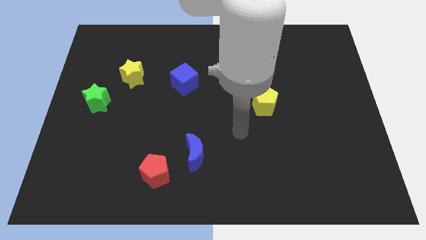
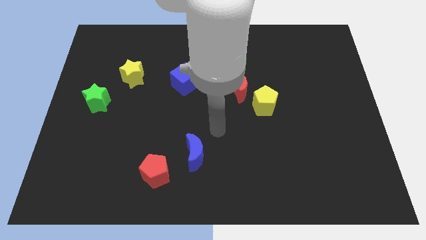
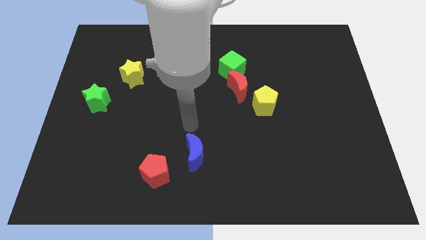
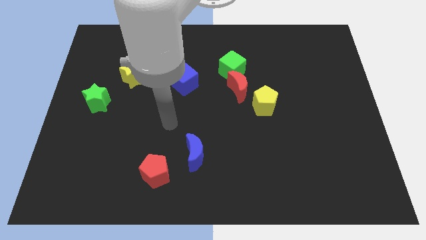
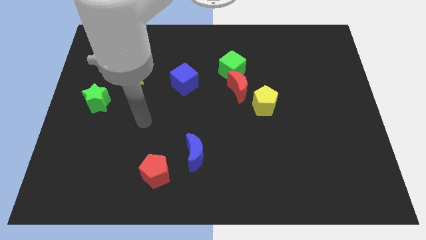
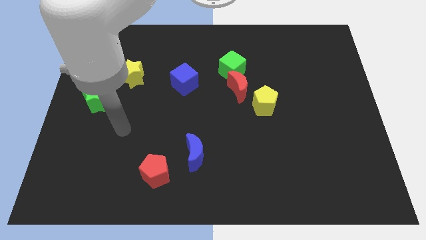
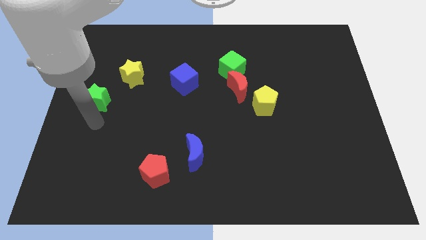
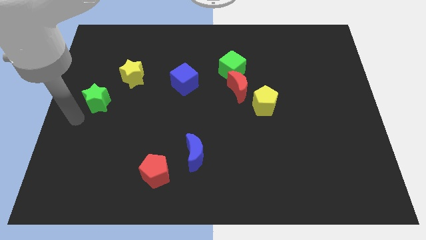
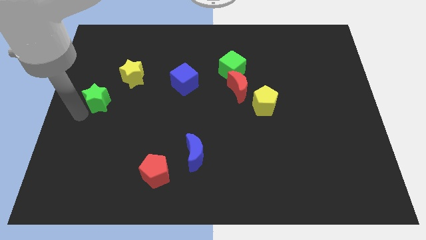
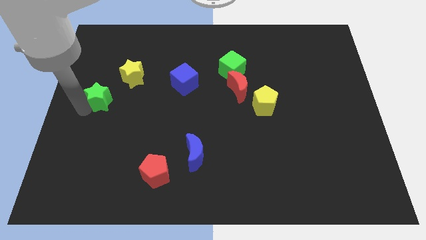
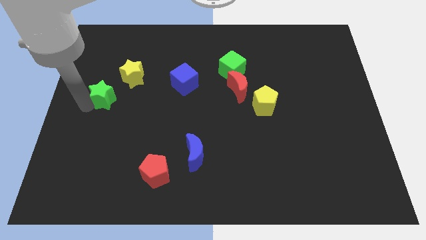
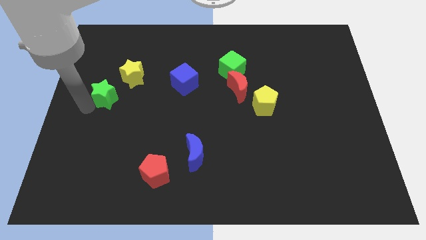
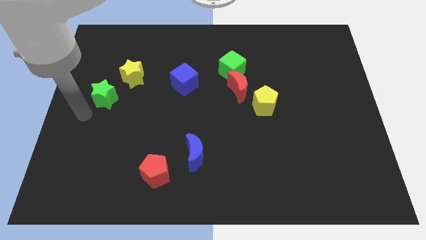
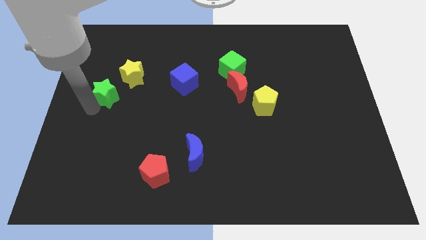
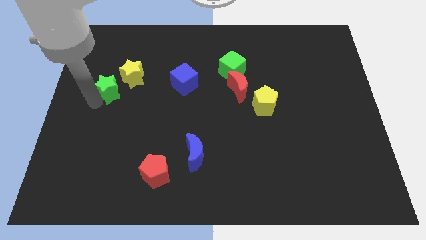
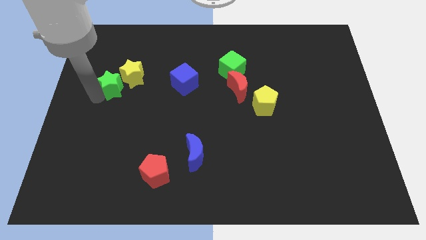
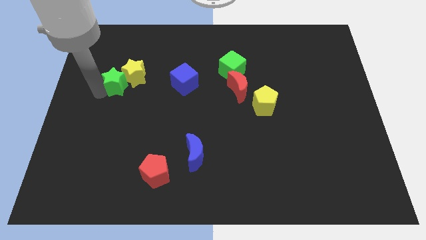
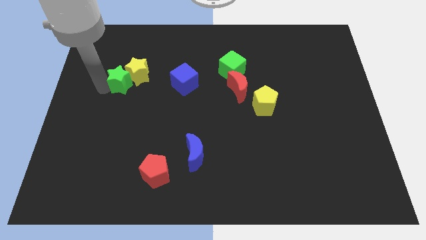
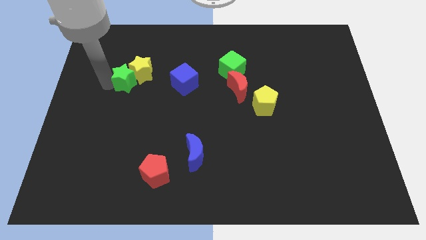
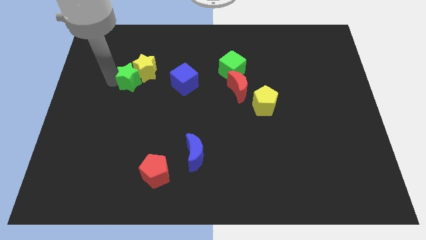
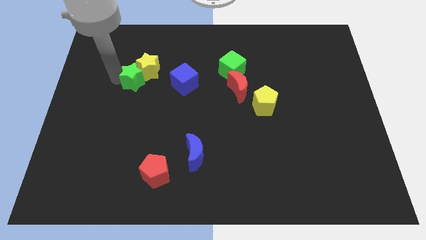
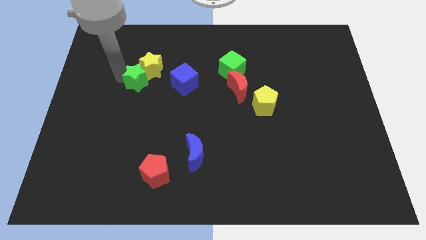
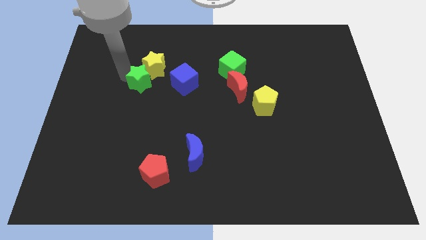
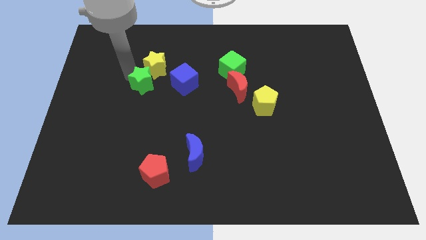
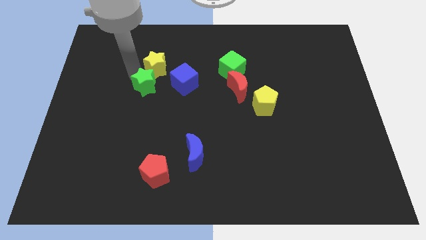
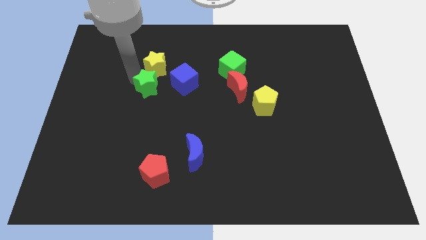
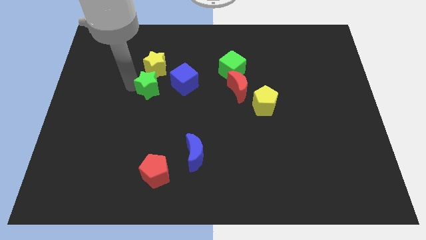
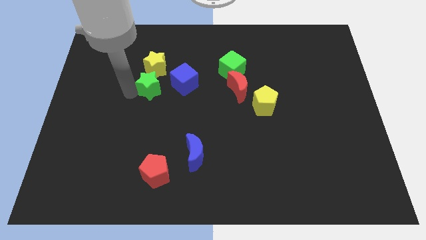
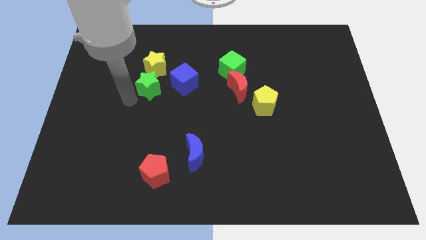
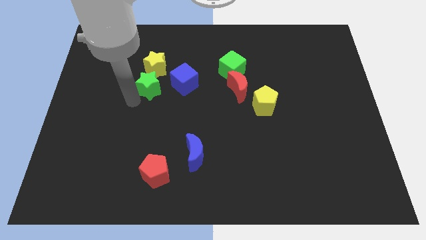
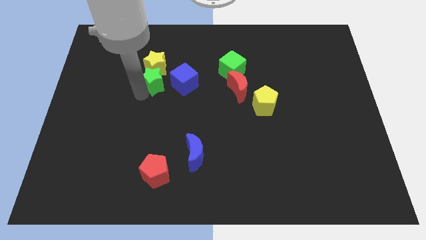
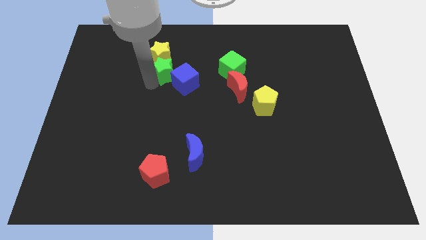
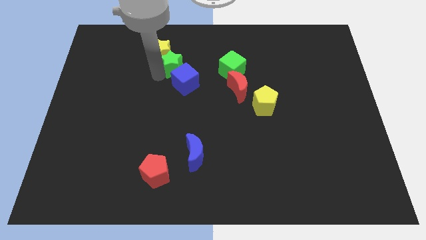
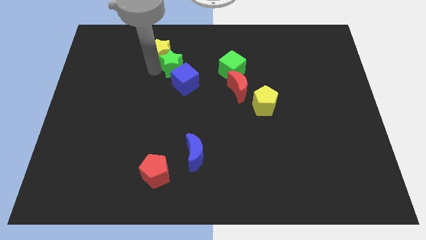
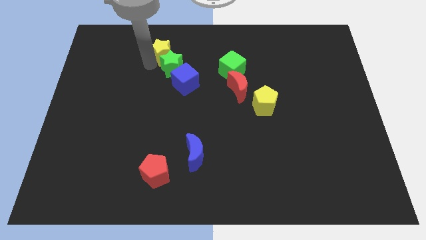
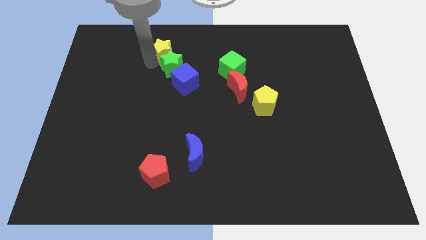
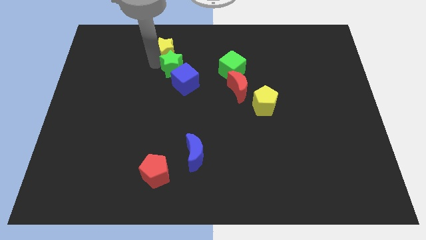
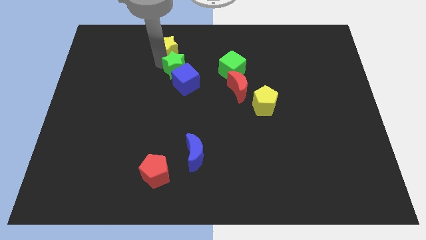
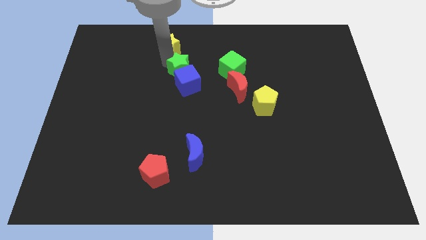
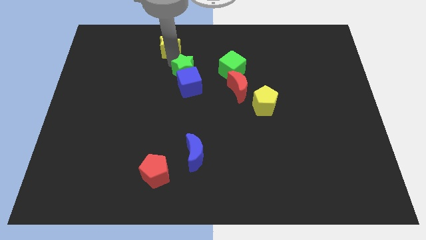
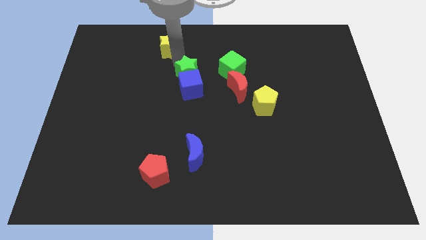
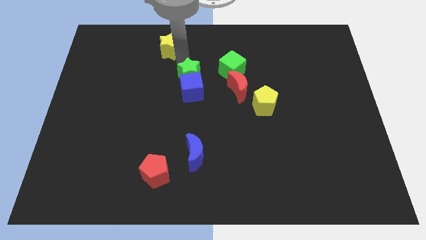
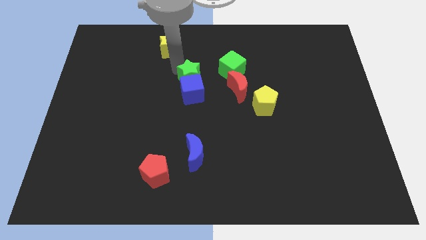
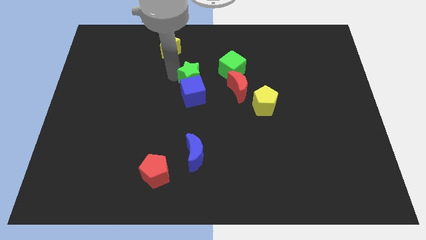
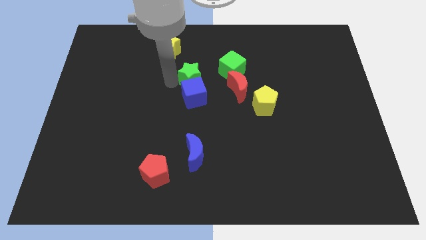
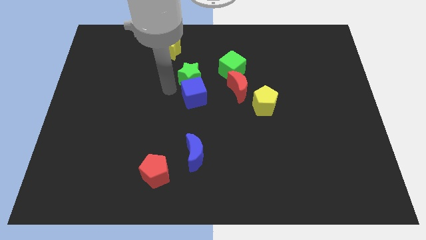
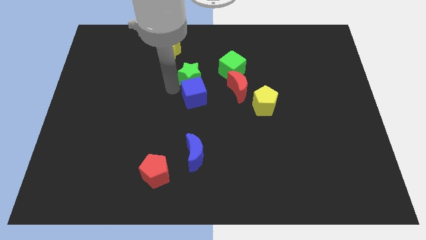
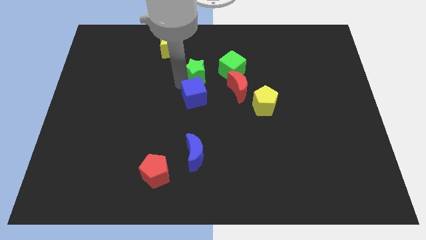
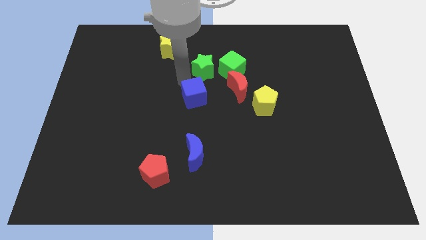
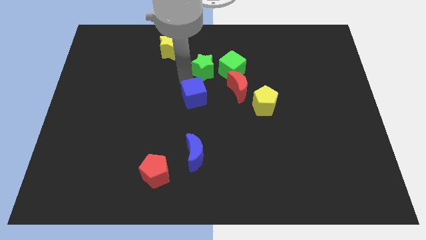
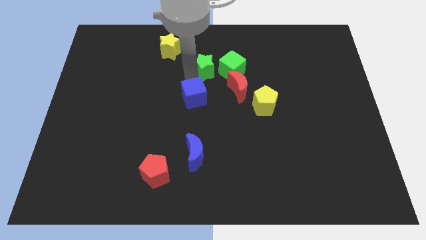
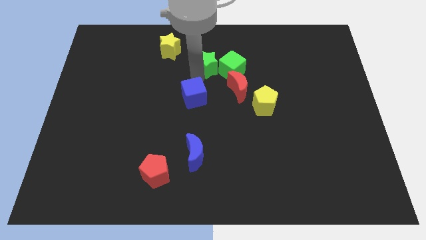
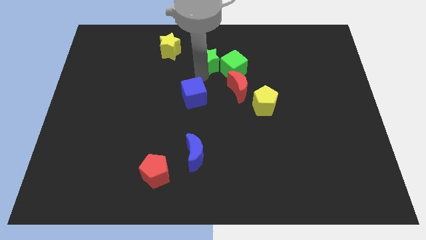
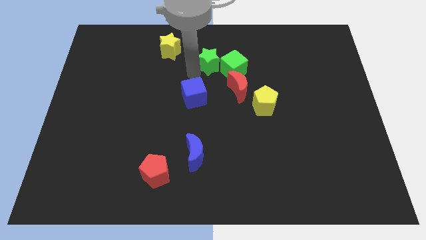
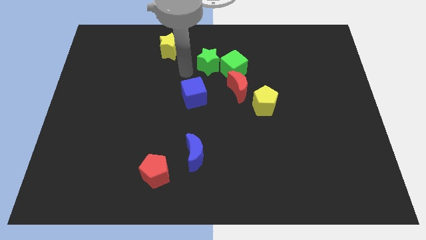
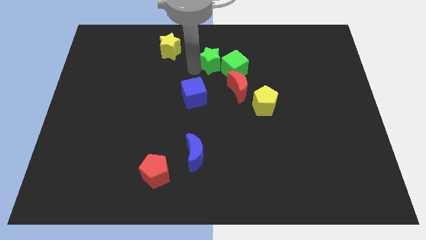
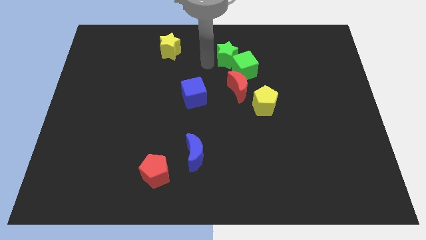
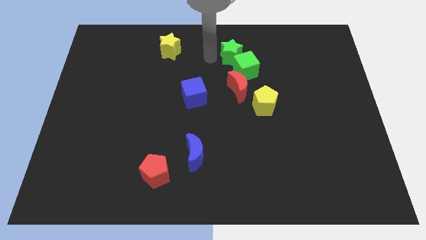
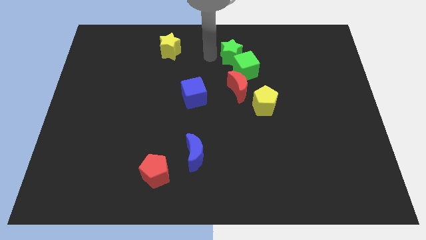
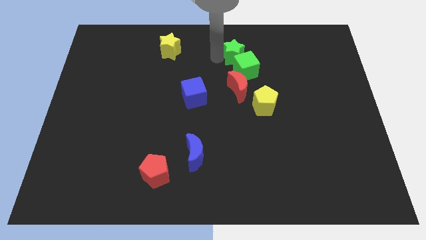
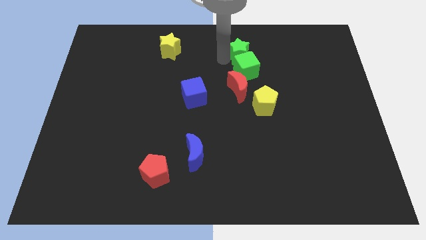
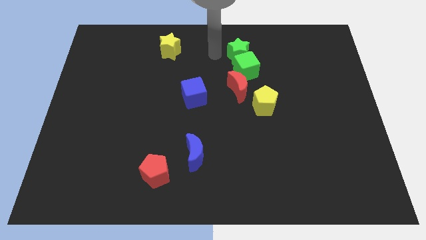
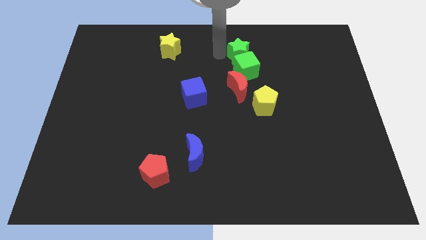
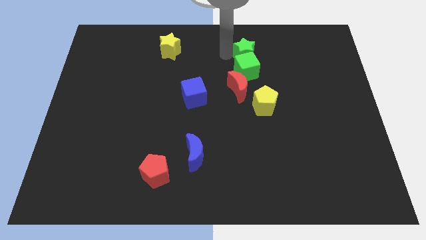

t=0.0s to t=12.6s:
push the green star to the top right of the green cube

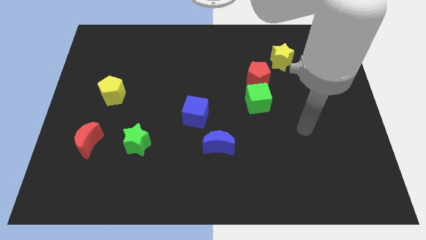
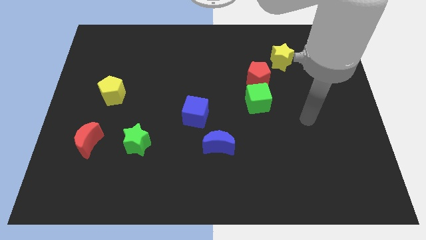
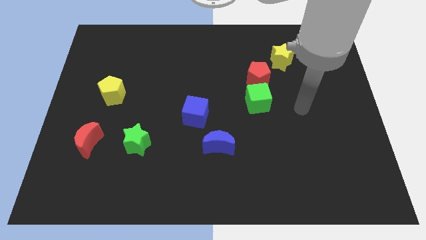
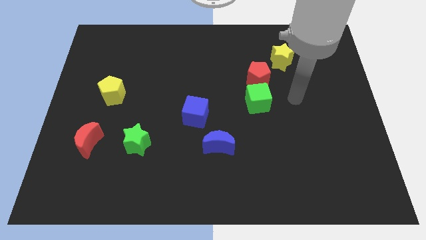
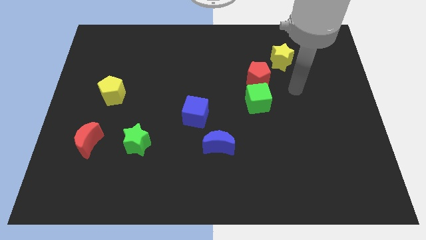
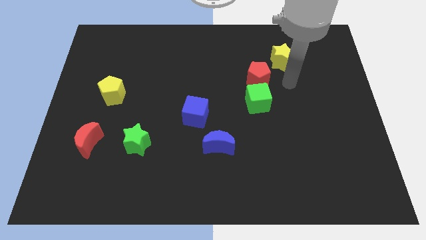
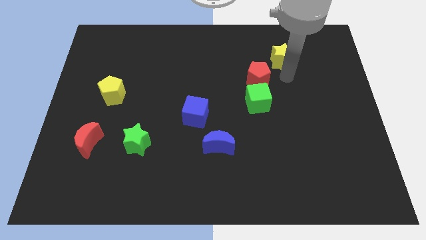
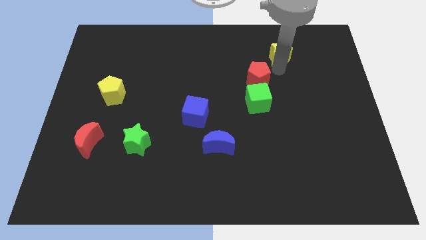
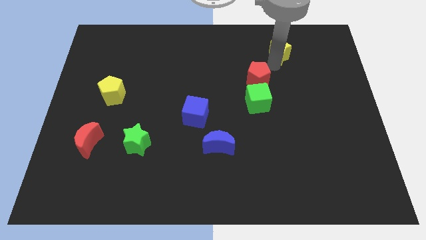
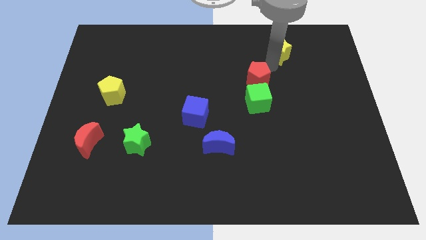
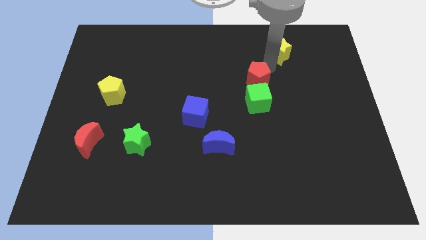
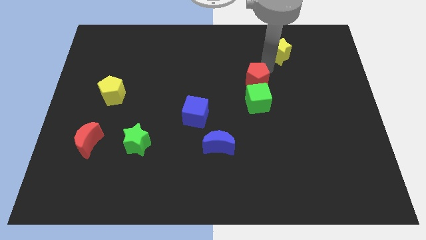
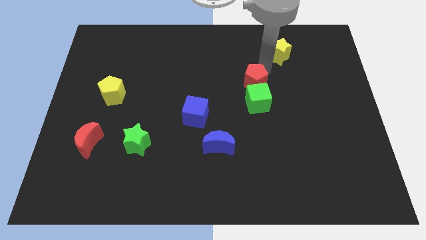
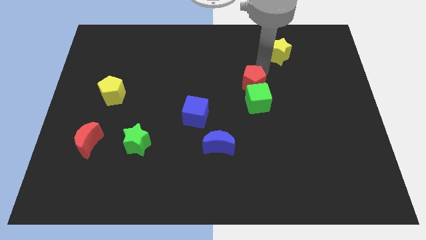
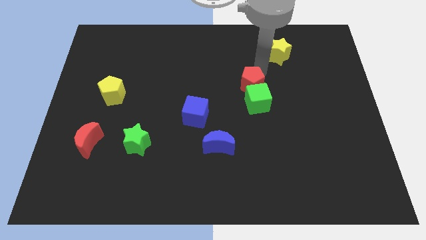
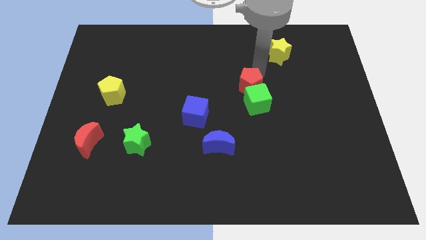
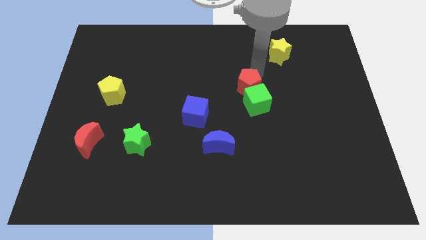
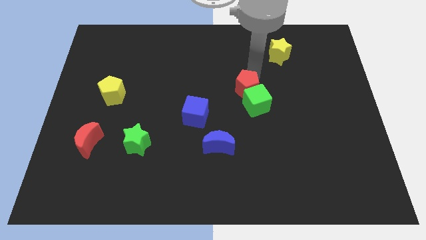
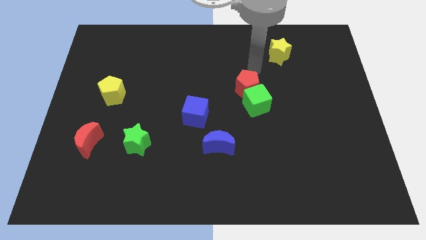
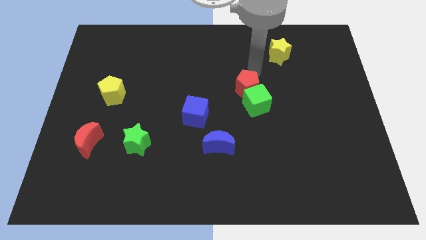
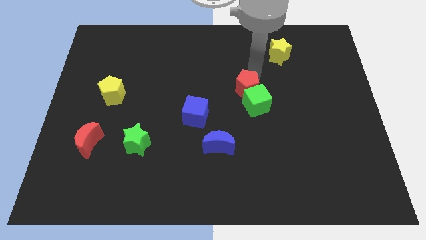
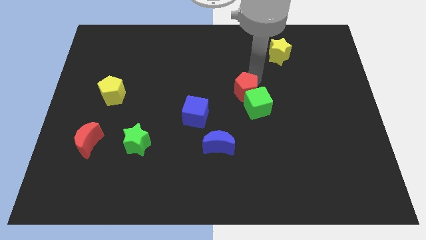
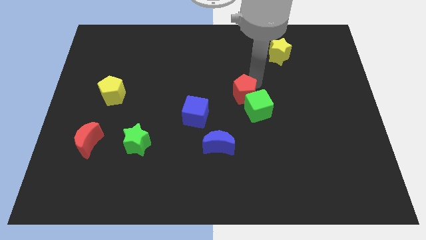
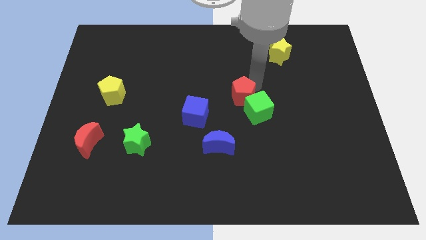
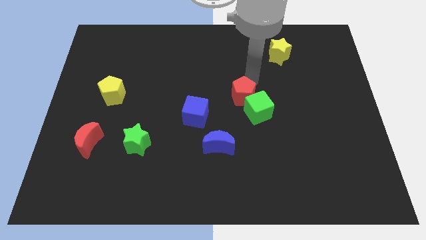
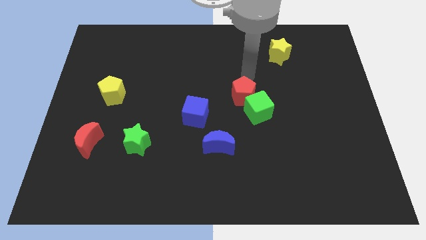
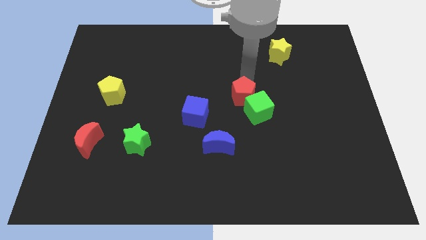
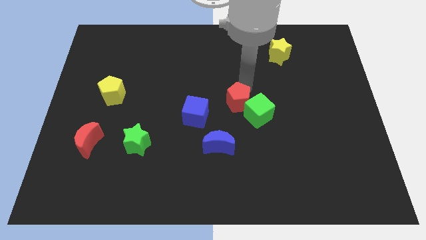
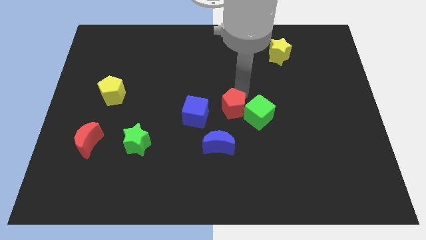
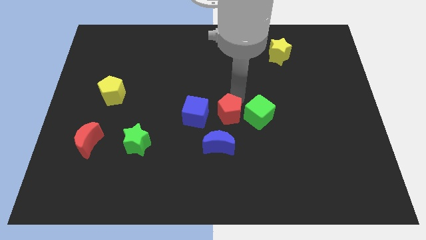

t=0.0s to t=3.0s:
slide the red pentagon to the bottom left of the green cube
